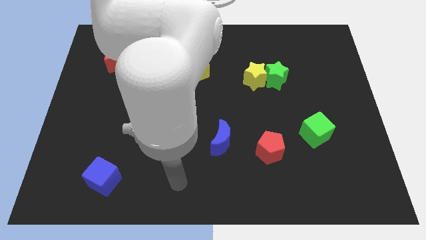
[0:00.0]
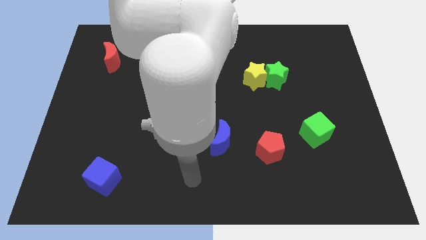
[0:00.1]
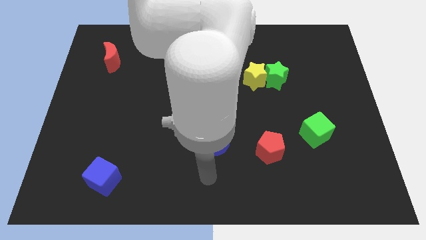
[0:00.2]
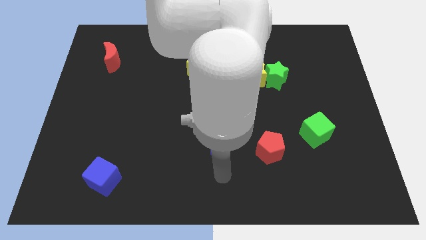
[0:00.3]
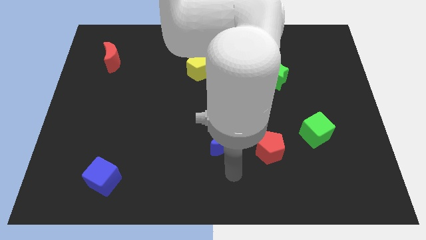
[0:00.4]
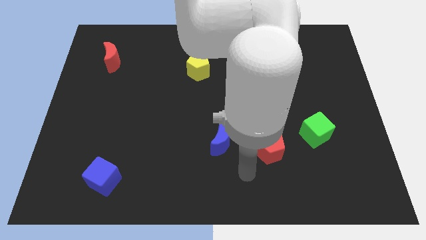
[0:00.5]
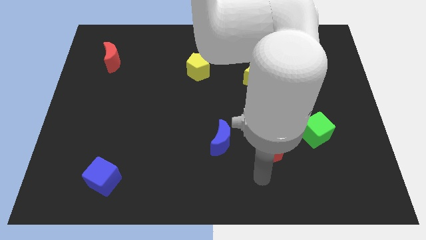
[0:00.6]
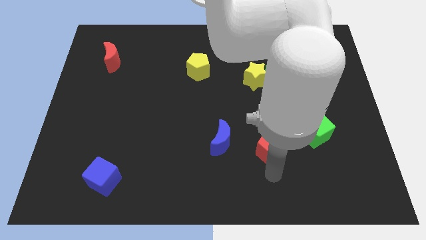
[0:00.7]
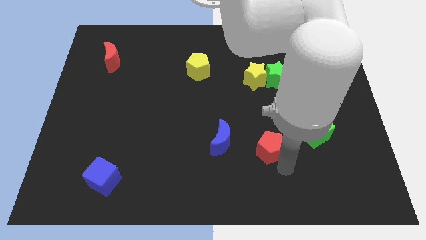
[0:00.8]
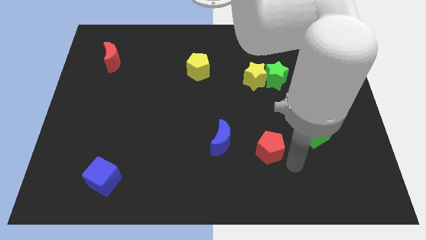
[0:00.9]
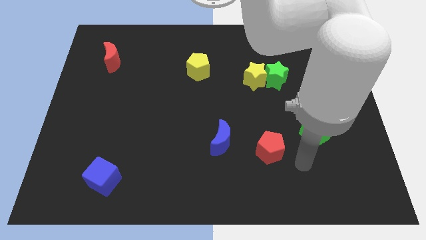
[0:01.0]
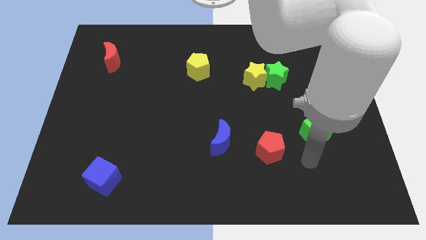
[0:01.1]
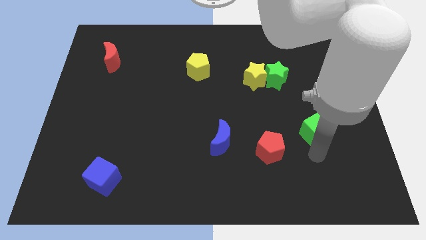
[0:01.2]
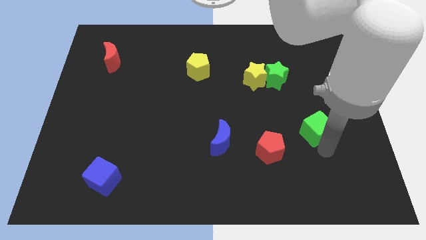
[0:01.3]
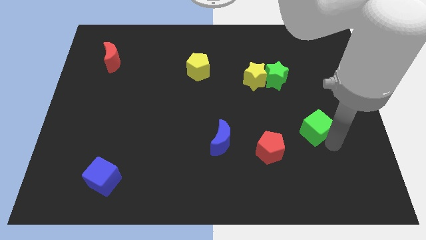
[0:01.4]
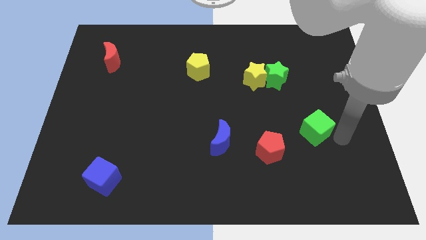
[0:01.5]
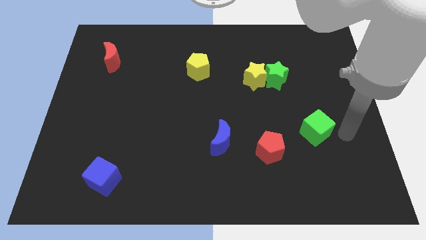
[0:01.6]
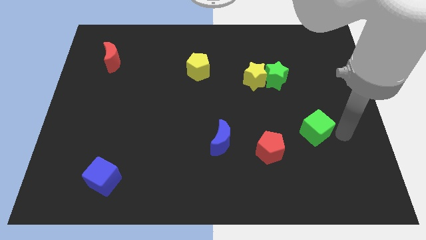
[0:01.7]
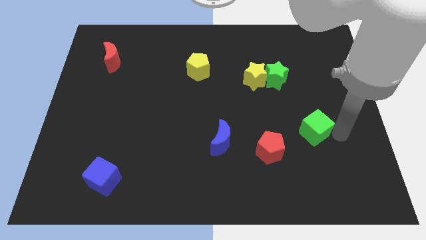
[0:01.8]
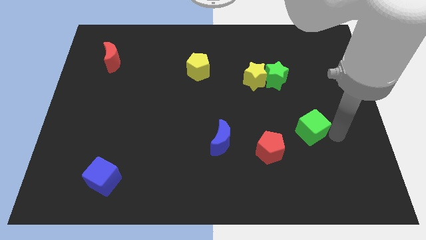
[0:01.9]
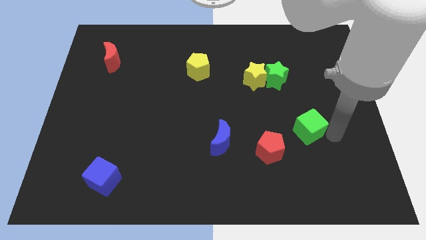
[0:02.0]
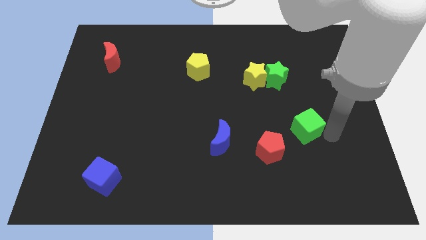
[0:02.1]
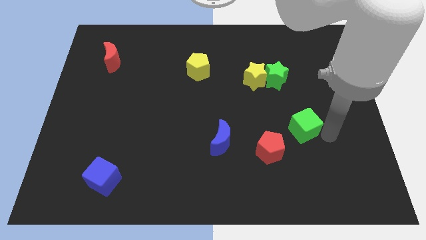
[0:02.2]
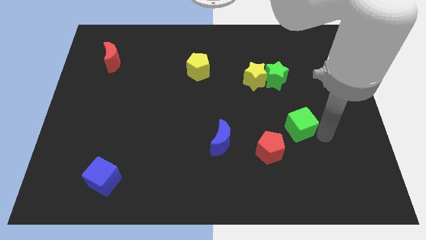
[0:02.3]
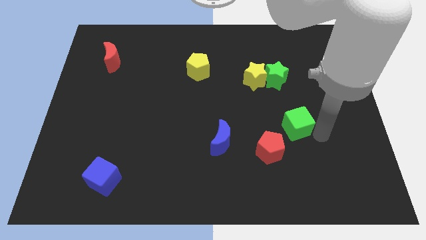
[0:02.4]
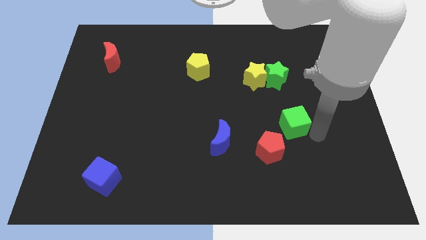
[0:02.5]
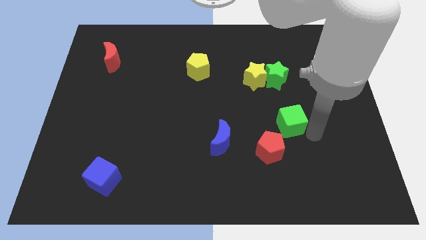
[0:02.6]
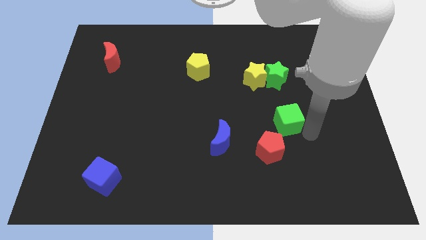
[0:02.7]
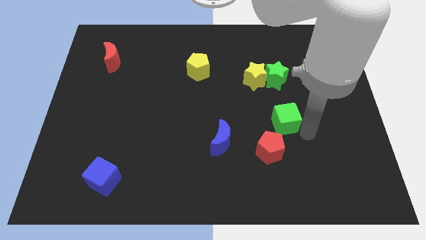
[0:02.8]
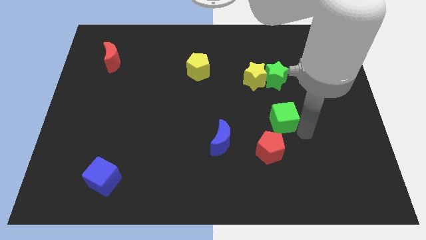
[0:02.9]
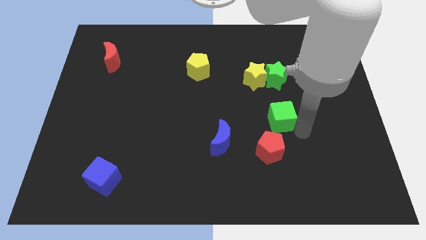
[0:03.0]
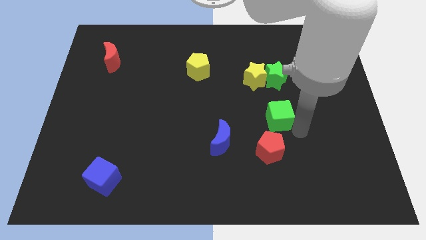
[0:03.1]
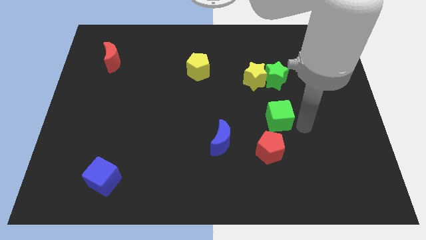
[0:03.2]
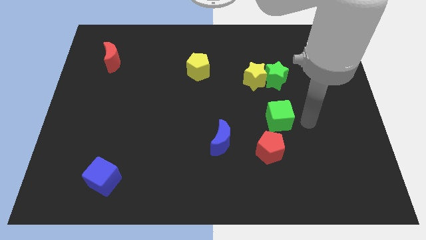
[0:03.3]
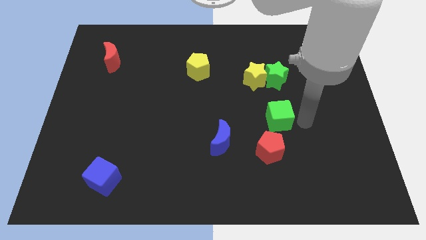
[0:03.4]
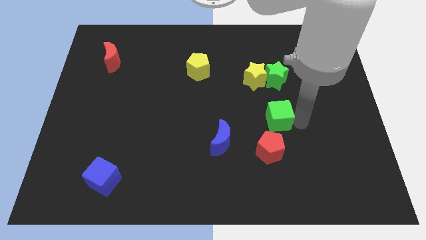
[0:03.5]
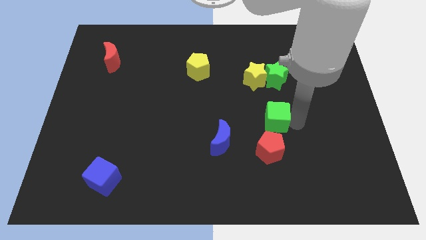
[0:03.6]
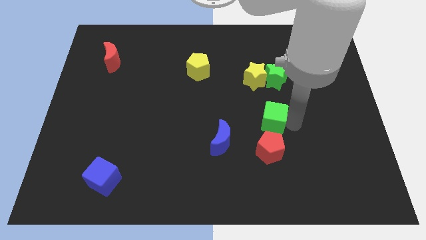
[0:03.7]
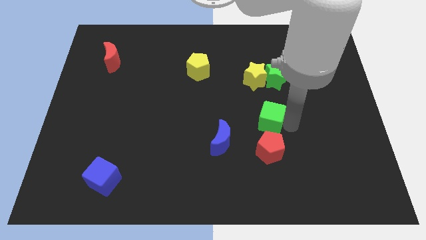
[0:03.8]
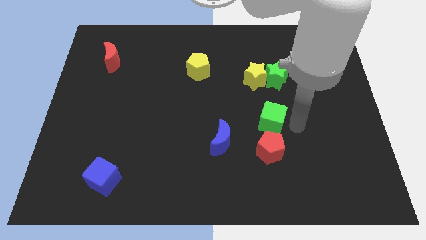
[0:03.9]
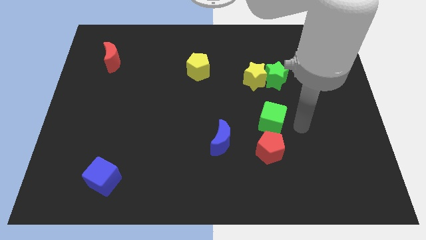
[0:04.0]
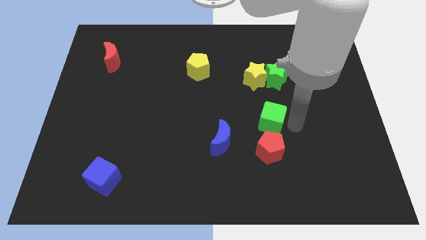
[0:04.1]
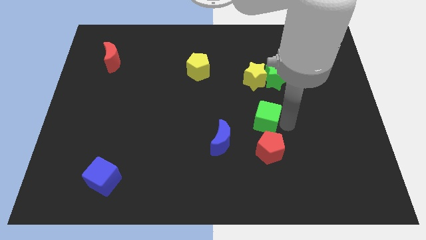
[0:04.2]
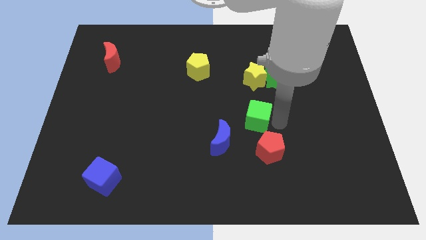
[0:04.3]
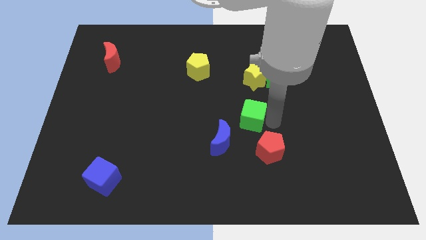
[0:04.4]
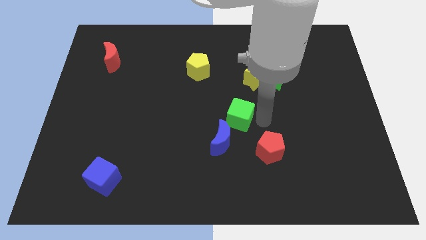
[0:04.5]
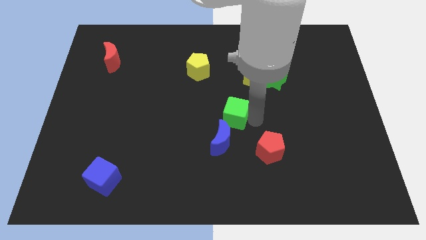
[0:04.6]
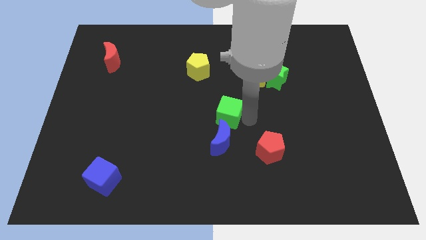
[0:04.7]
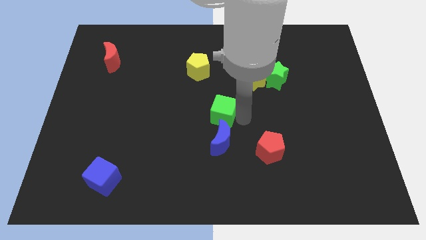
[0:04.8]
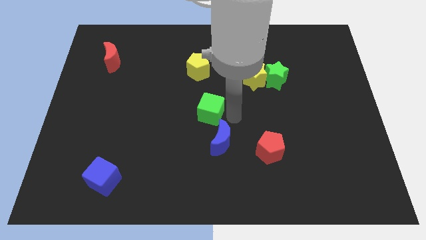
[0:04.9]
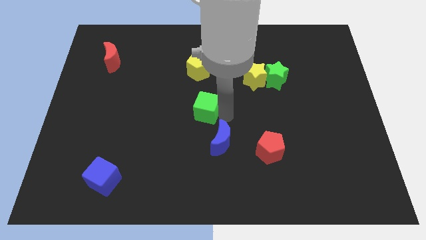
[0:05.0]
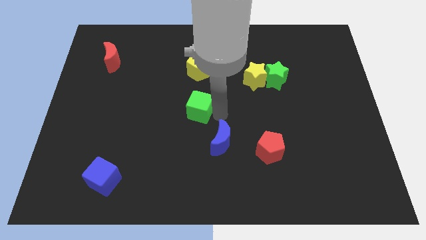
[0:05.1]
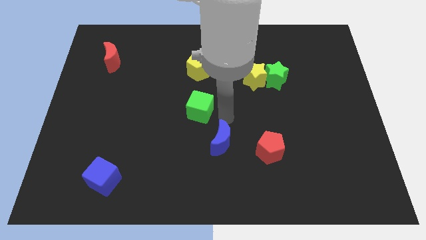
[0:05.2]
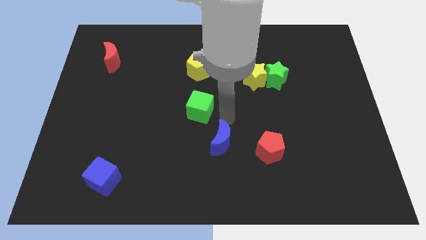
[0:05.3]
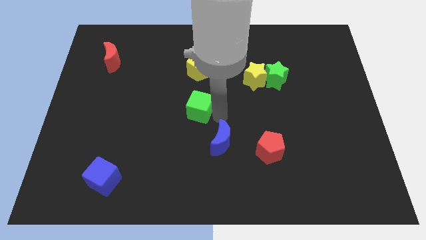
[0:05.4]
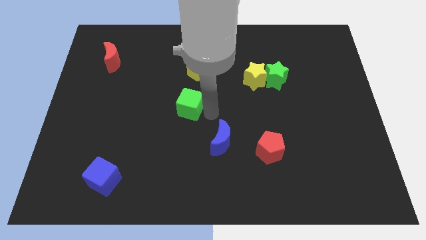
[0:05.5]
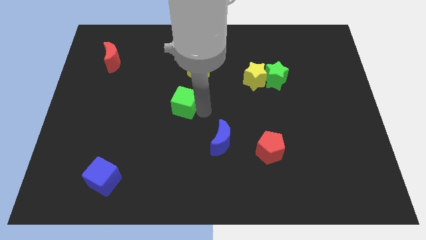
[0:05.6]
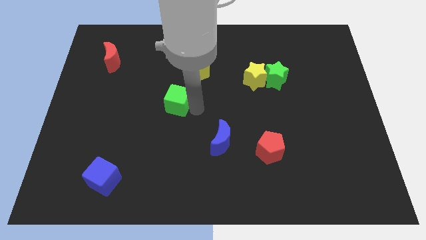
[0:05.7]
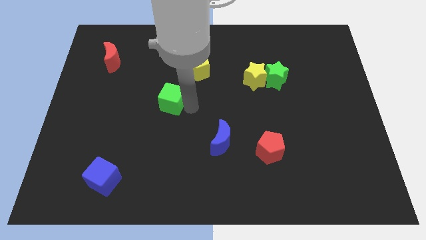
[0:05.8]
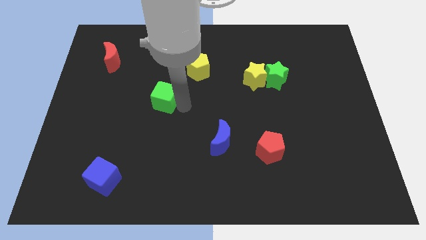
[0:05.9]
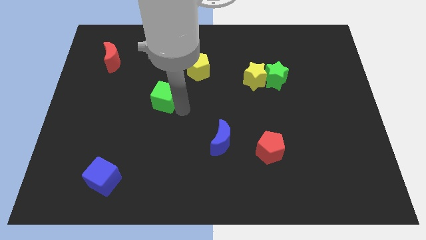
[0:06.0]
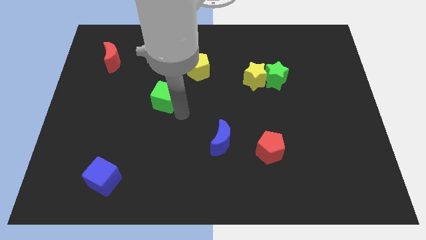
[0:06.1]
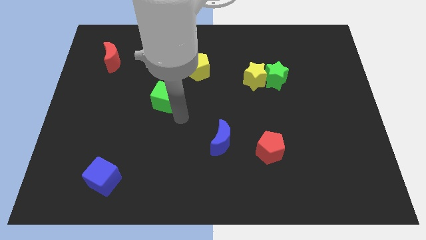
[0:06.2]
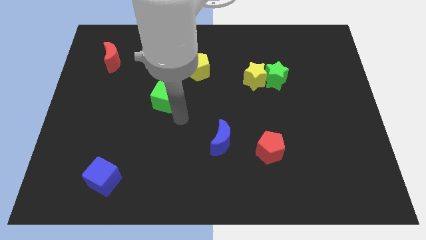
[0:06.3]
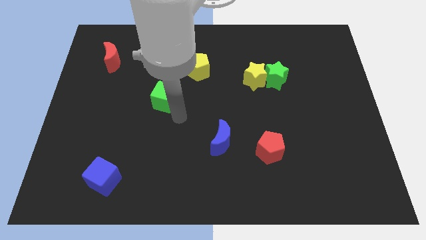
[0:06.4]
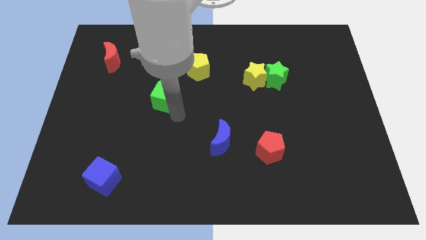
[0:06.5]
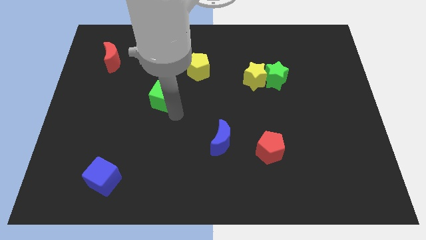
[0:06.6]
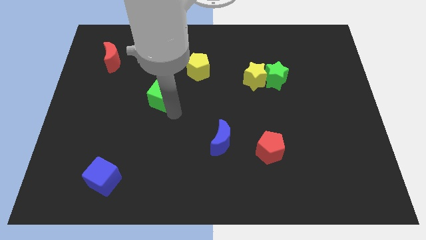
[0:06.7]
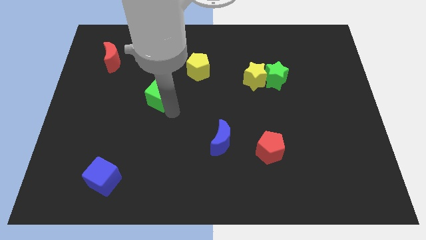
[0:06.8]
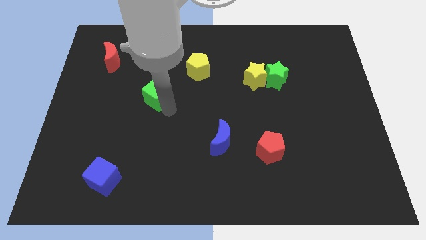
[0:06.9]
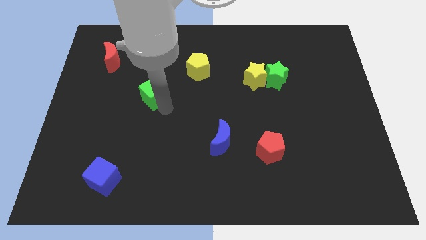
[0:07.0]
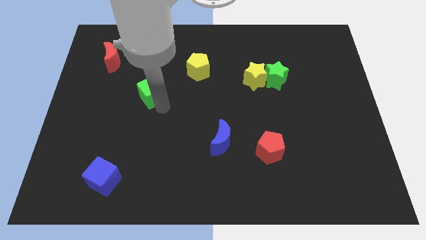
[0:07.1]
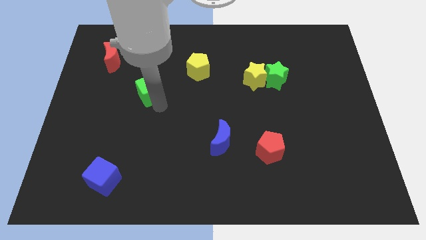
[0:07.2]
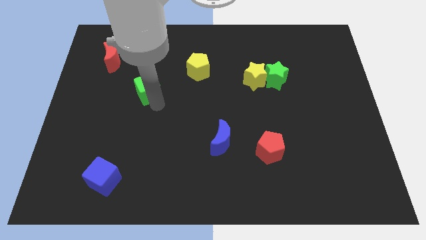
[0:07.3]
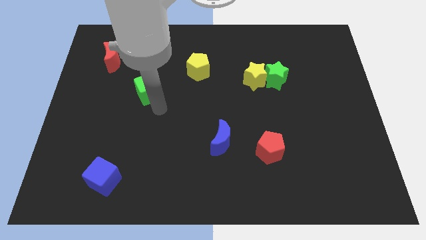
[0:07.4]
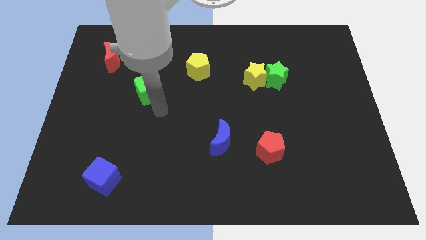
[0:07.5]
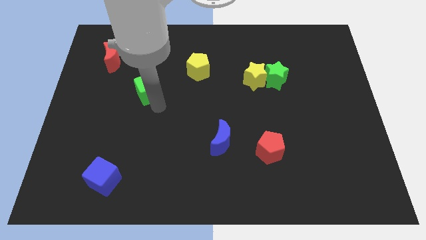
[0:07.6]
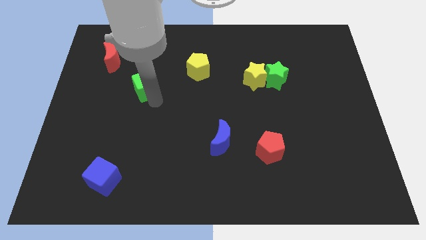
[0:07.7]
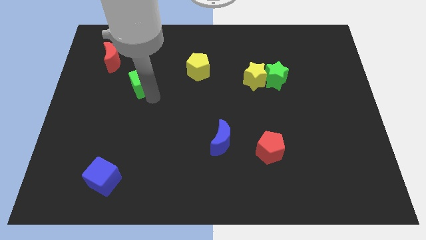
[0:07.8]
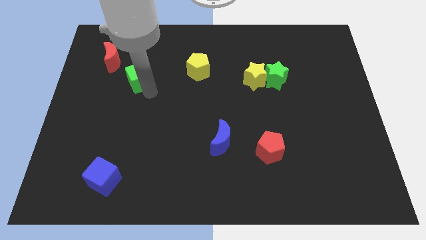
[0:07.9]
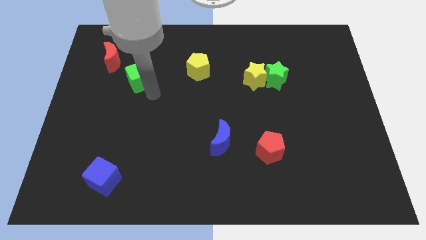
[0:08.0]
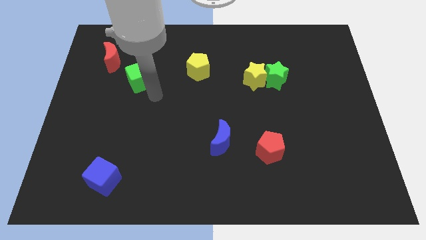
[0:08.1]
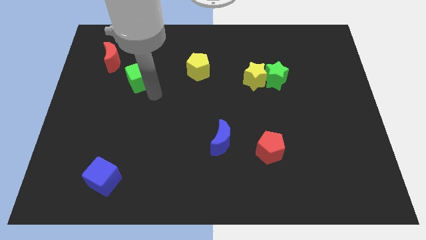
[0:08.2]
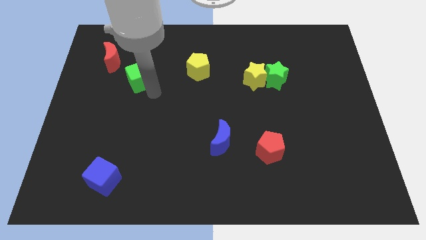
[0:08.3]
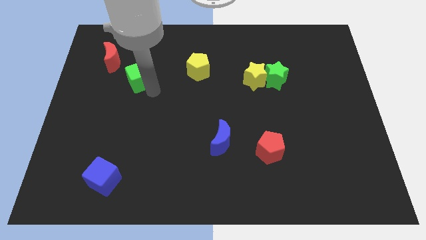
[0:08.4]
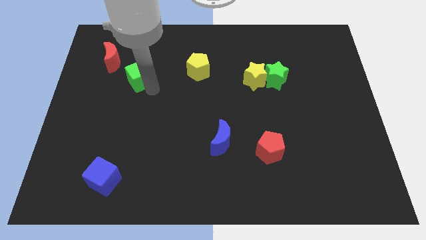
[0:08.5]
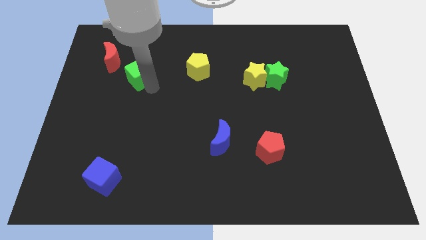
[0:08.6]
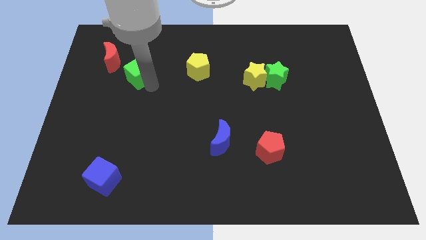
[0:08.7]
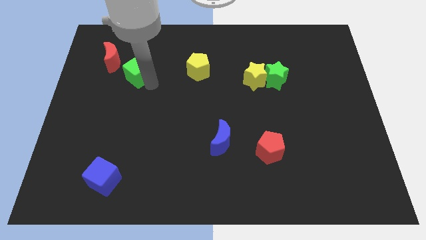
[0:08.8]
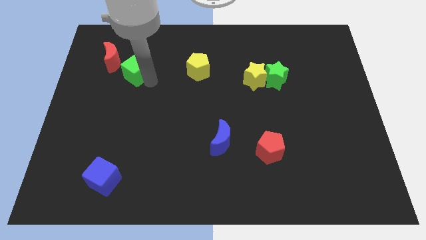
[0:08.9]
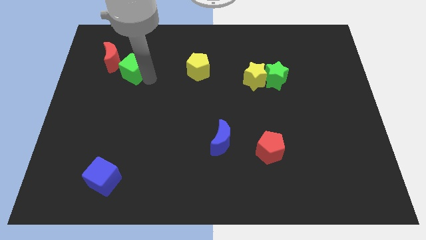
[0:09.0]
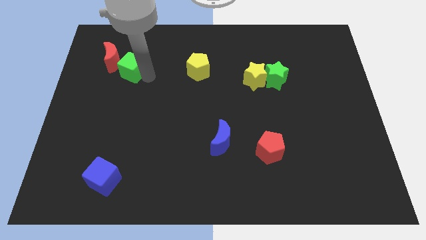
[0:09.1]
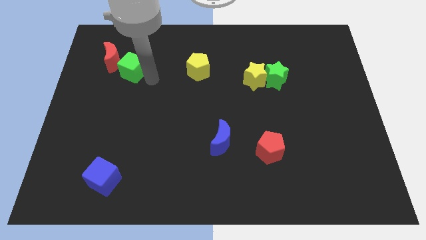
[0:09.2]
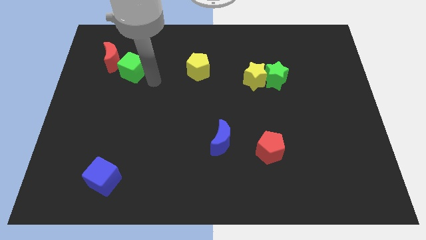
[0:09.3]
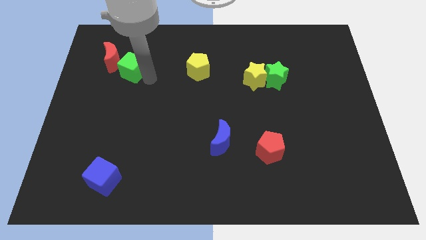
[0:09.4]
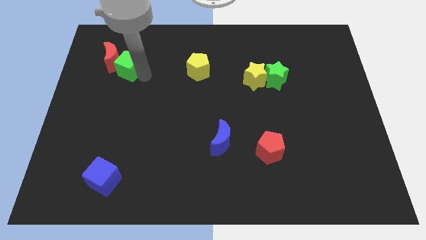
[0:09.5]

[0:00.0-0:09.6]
move the green cube towards the red moon
